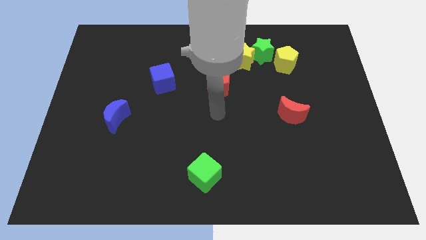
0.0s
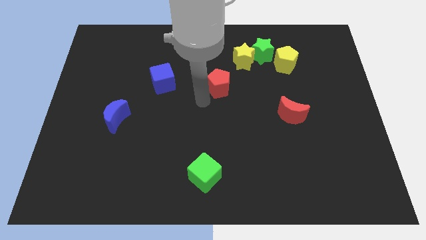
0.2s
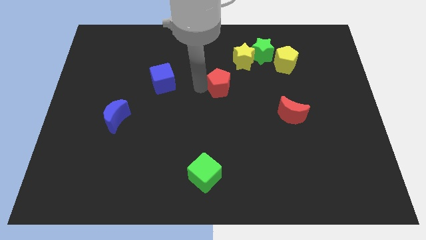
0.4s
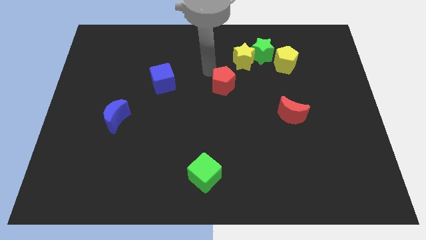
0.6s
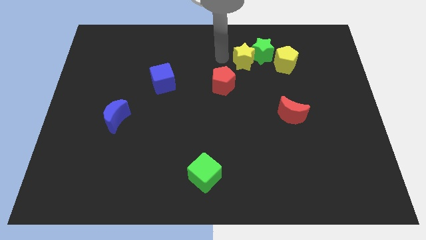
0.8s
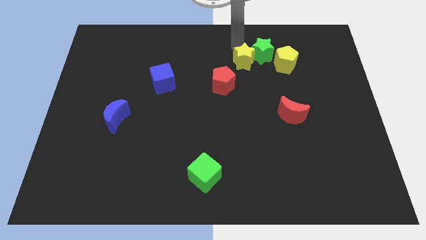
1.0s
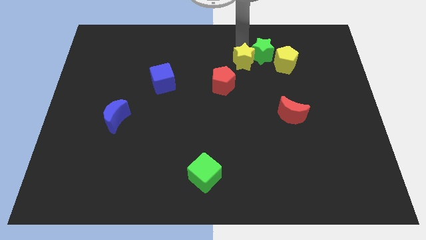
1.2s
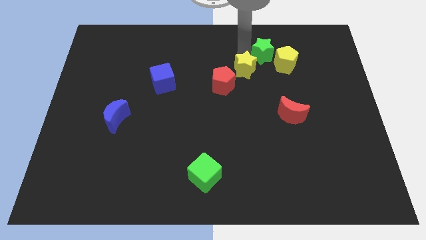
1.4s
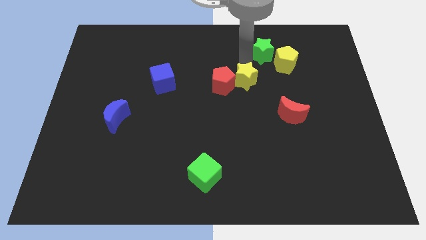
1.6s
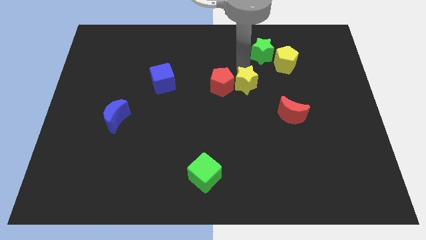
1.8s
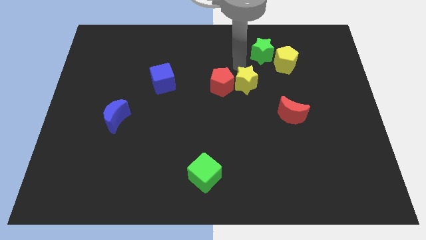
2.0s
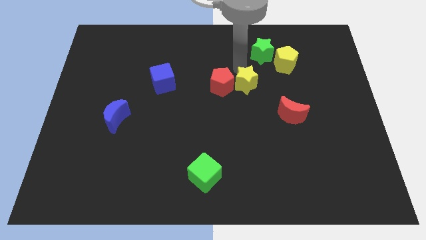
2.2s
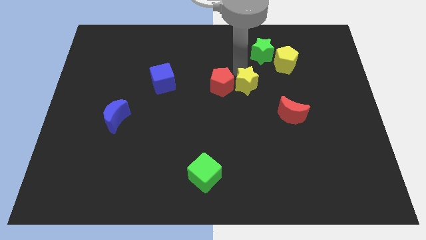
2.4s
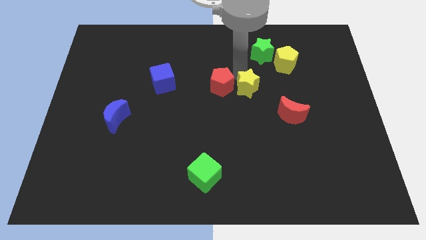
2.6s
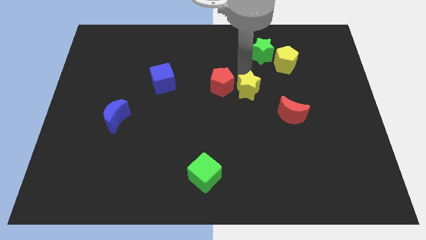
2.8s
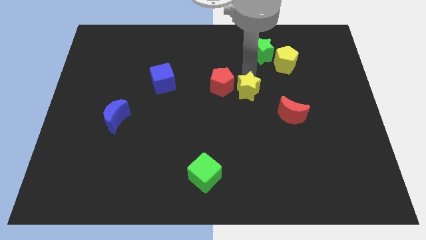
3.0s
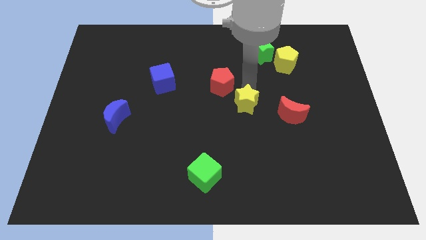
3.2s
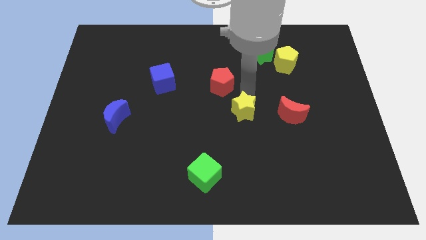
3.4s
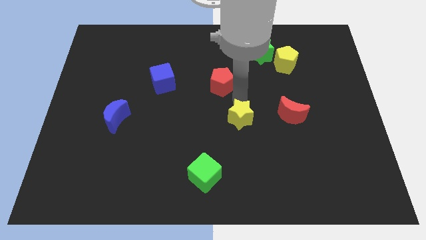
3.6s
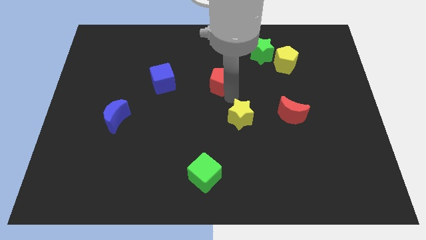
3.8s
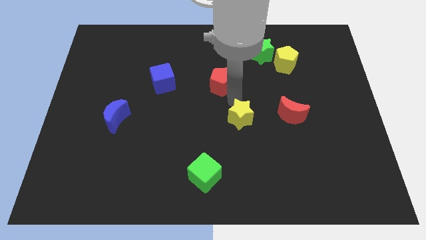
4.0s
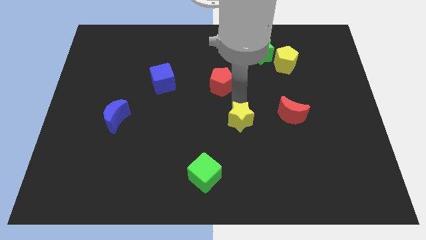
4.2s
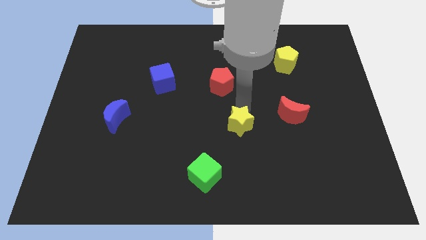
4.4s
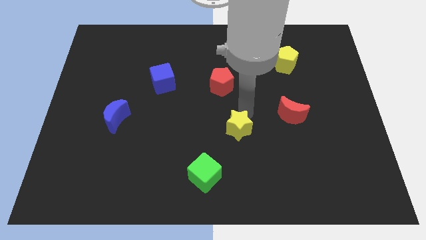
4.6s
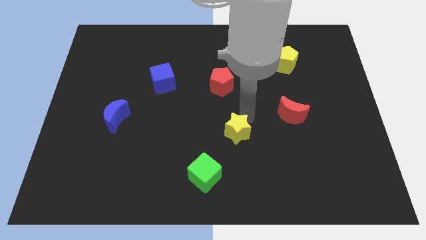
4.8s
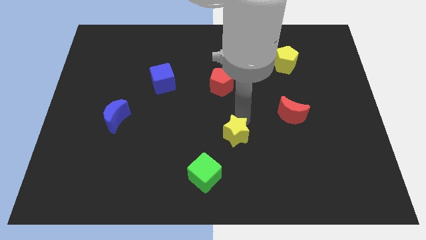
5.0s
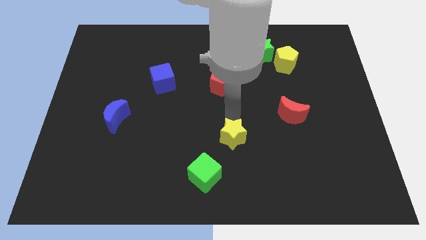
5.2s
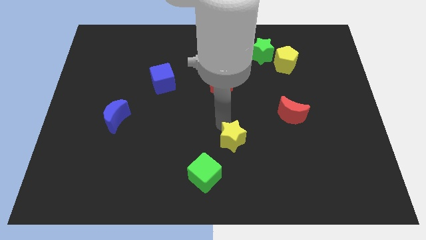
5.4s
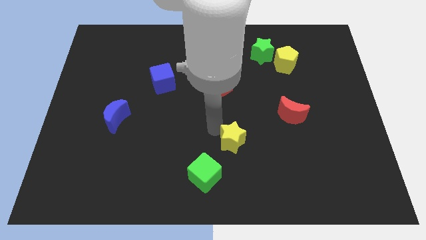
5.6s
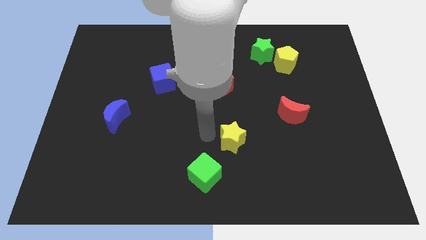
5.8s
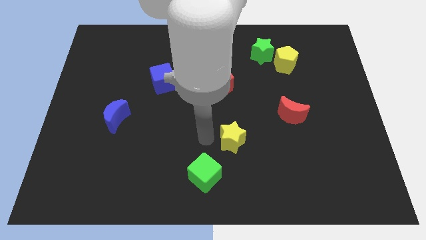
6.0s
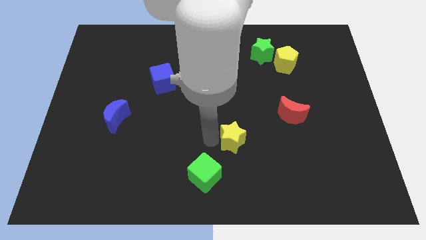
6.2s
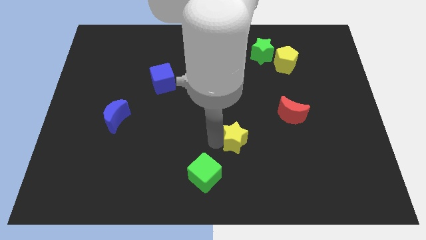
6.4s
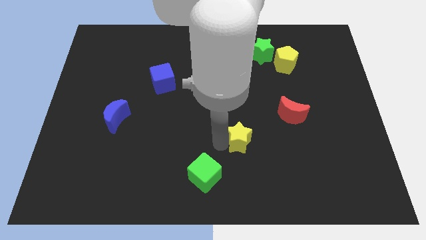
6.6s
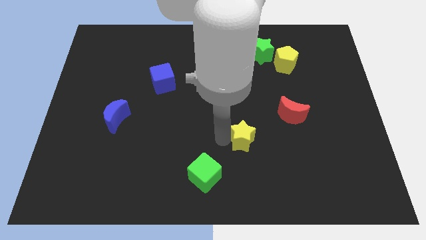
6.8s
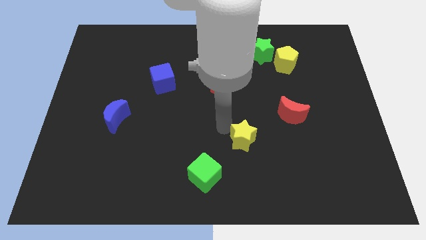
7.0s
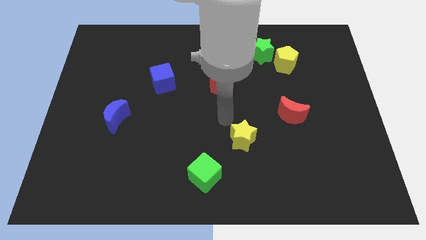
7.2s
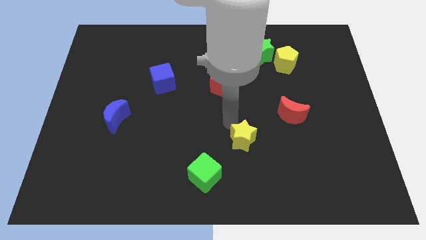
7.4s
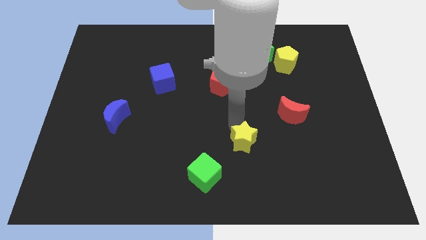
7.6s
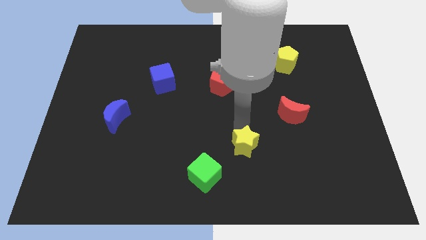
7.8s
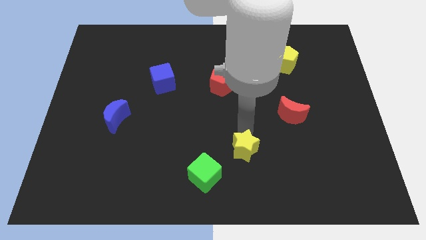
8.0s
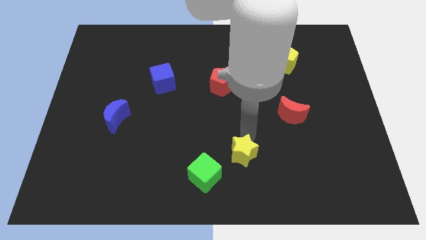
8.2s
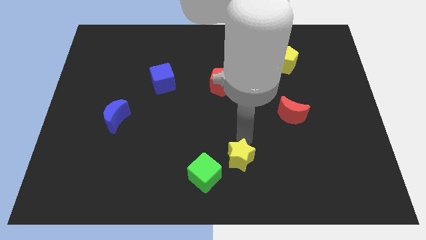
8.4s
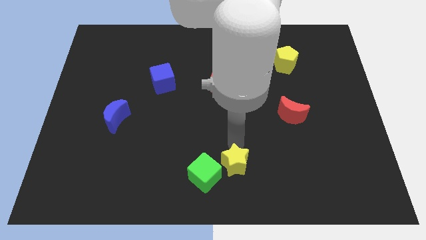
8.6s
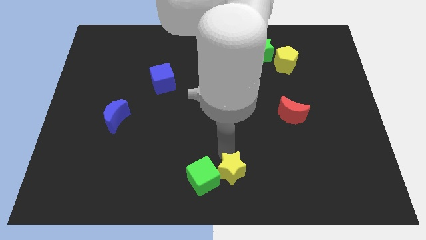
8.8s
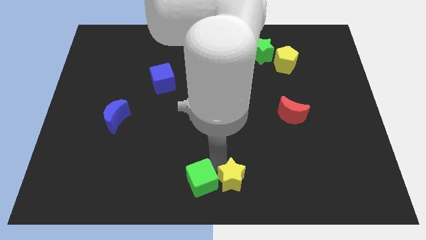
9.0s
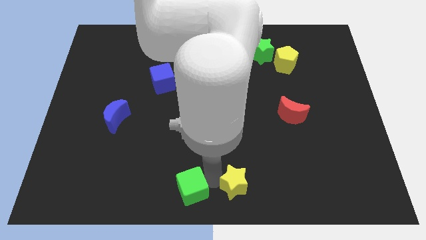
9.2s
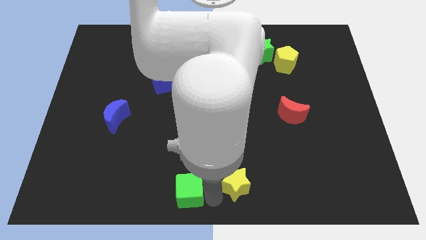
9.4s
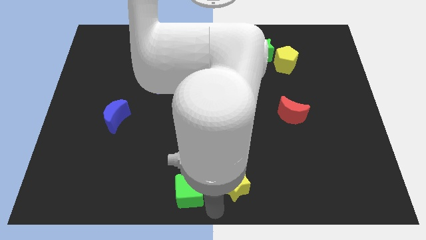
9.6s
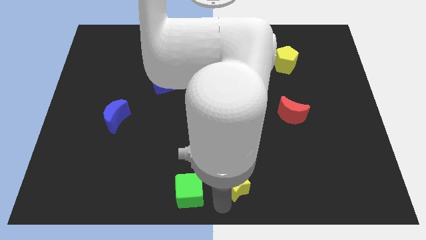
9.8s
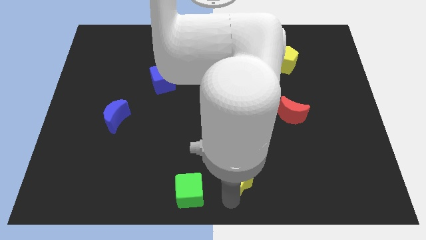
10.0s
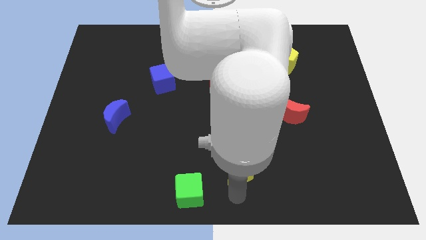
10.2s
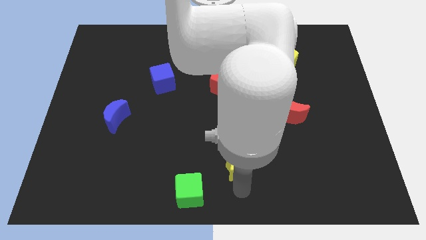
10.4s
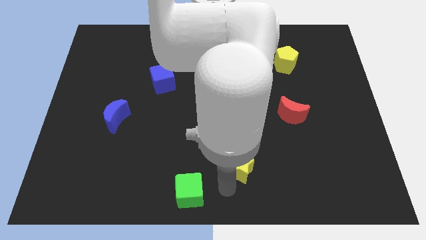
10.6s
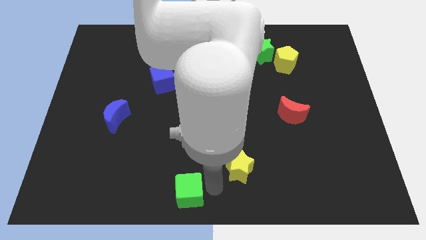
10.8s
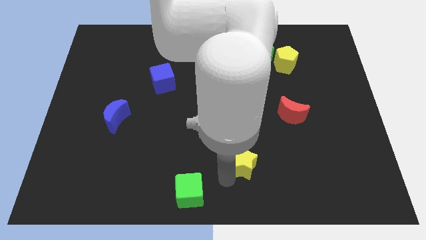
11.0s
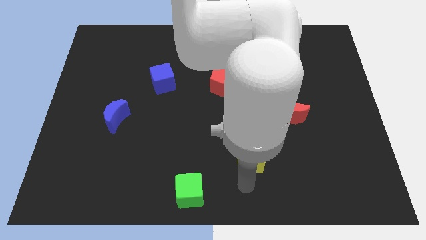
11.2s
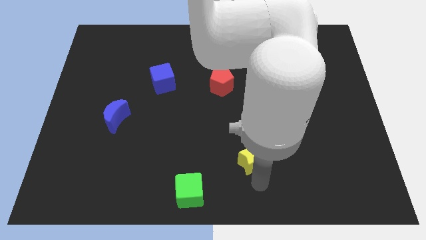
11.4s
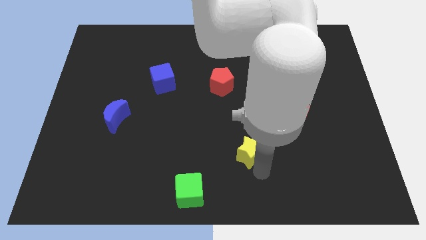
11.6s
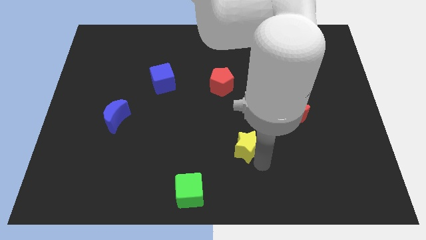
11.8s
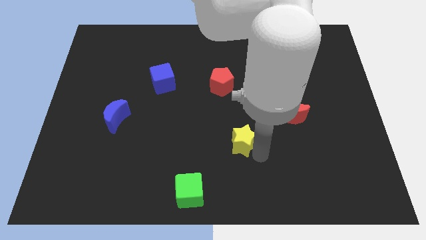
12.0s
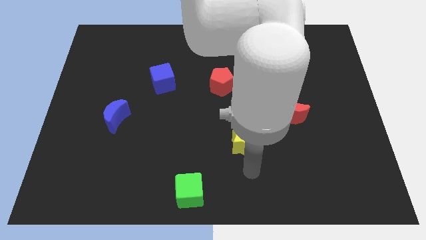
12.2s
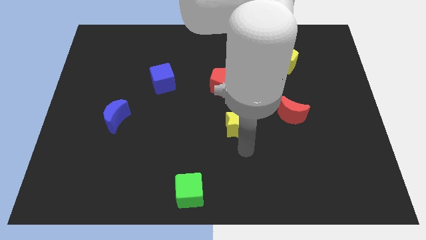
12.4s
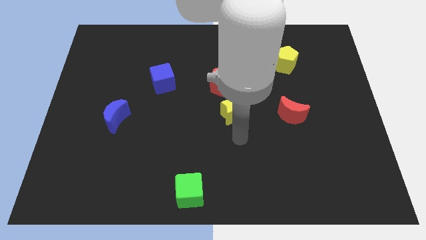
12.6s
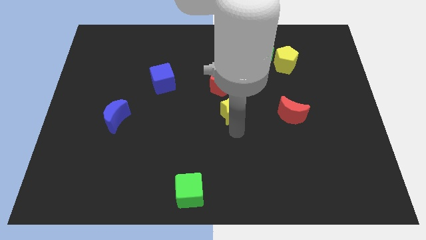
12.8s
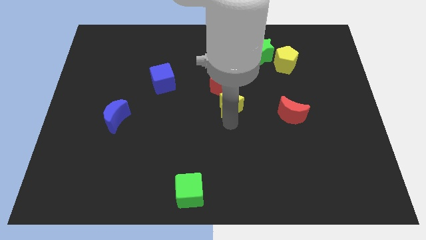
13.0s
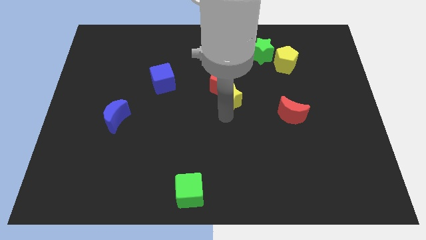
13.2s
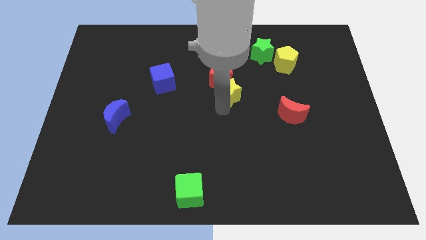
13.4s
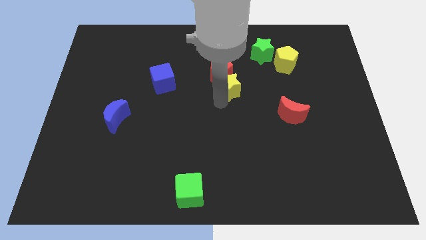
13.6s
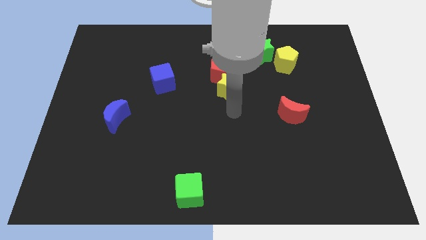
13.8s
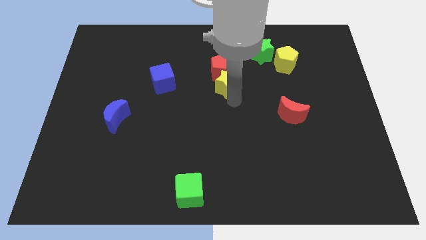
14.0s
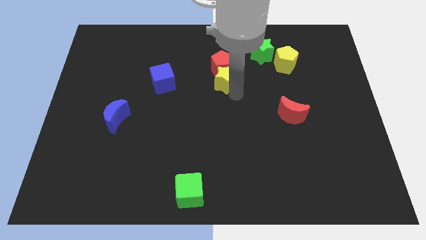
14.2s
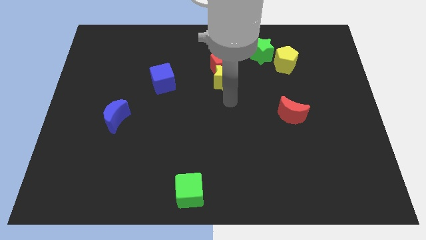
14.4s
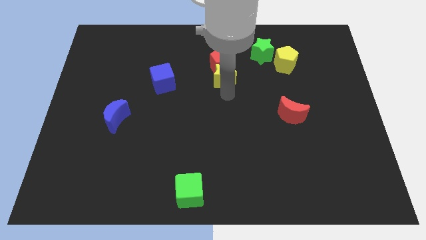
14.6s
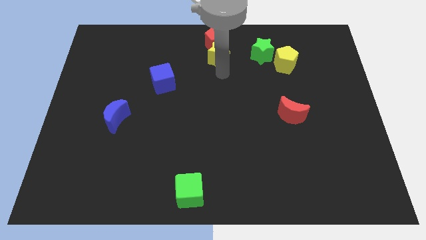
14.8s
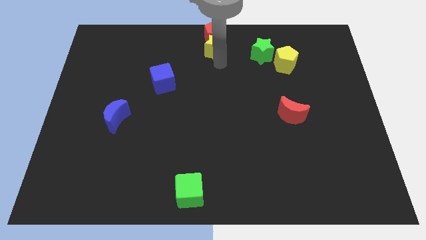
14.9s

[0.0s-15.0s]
move the yellow star to the top
